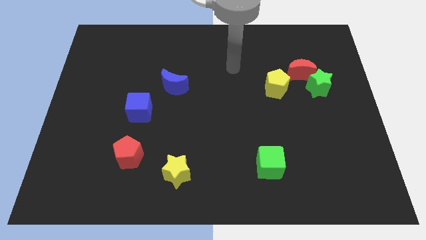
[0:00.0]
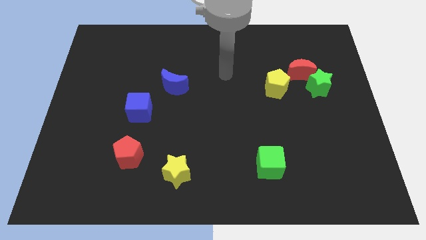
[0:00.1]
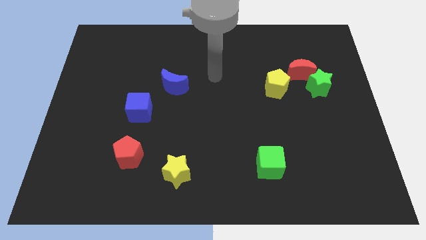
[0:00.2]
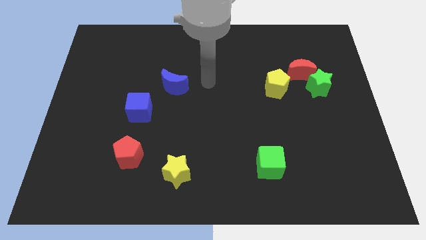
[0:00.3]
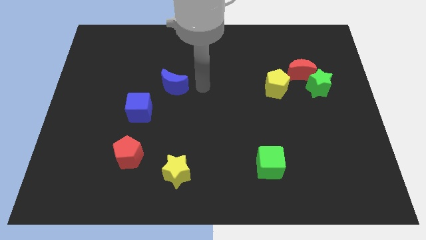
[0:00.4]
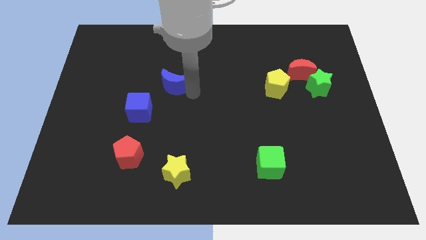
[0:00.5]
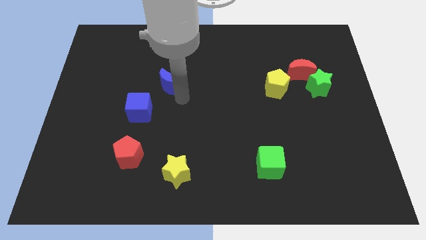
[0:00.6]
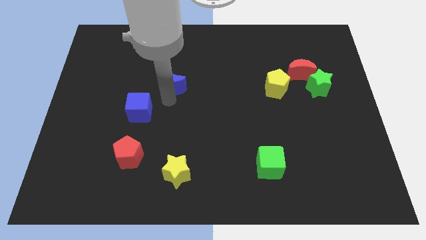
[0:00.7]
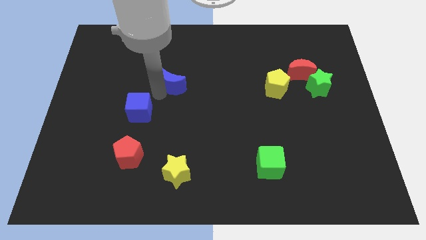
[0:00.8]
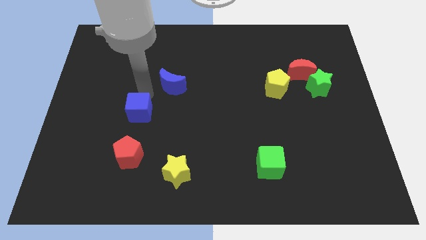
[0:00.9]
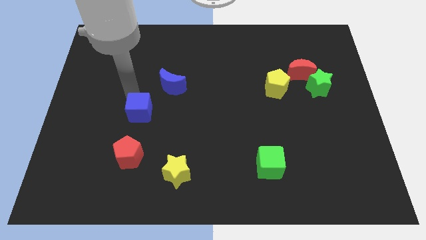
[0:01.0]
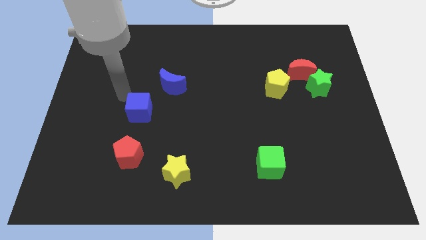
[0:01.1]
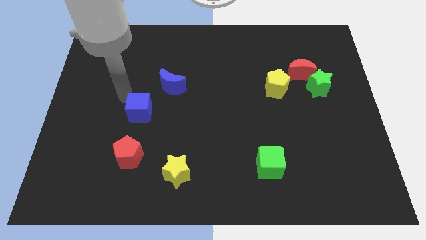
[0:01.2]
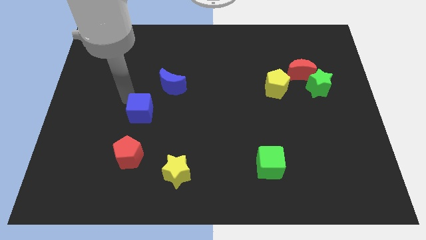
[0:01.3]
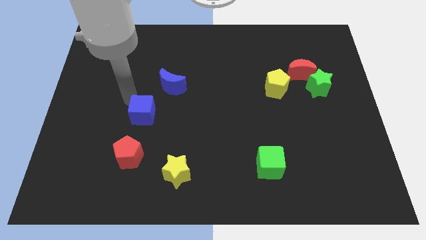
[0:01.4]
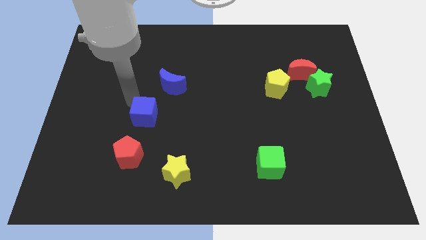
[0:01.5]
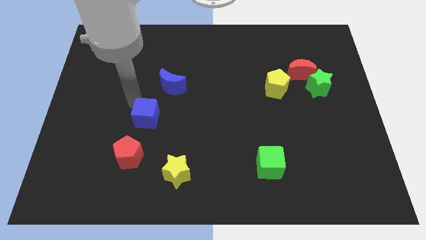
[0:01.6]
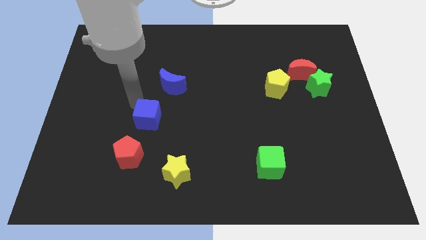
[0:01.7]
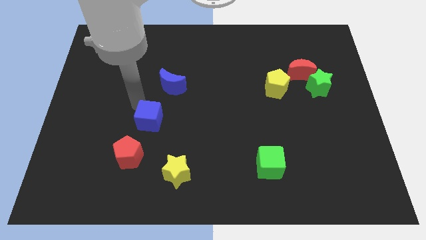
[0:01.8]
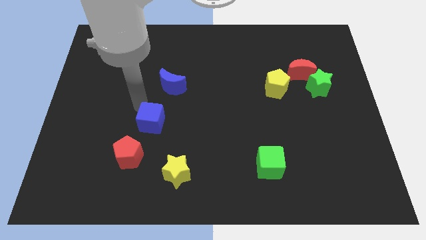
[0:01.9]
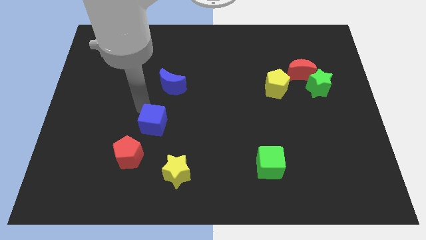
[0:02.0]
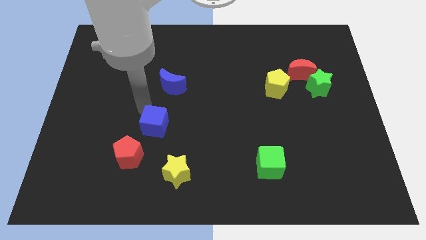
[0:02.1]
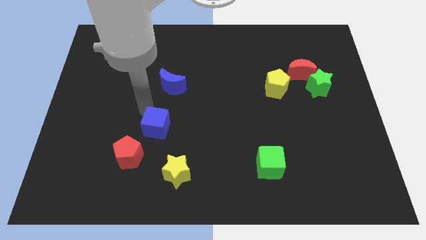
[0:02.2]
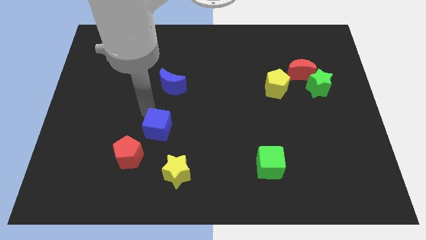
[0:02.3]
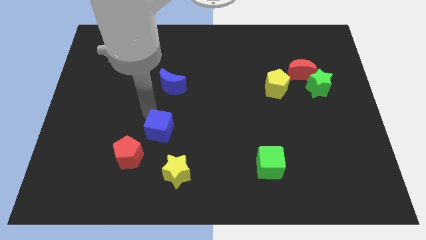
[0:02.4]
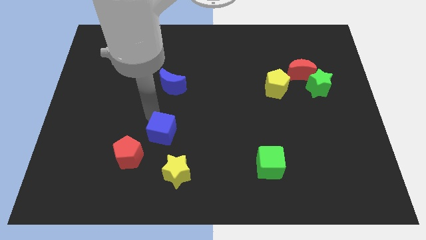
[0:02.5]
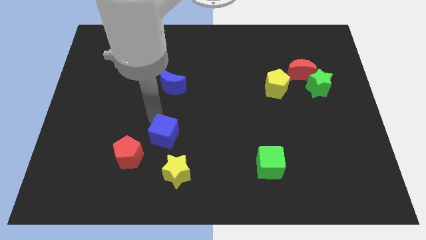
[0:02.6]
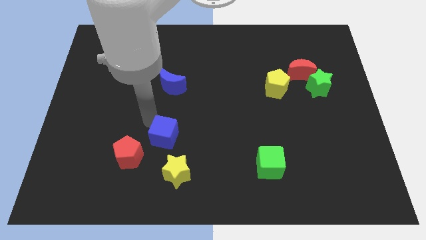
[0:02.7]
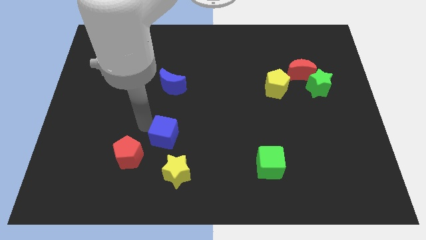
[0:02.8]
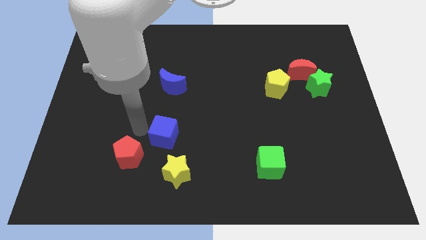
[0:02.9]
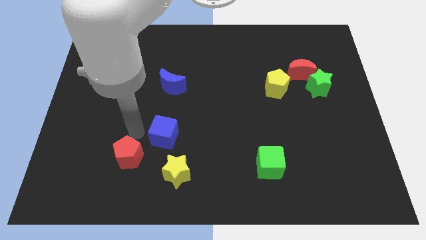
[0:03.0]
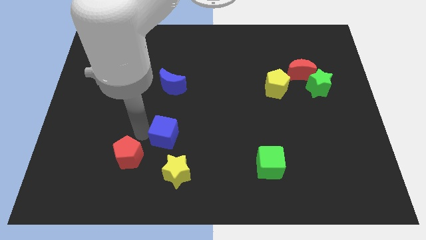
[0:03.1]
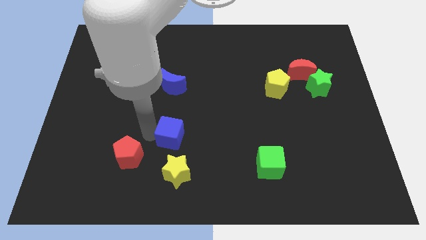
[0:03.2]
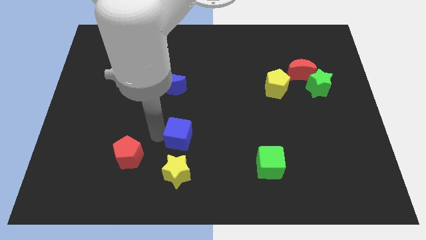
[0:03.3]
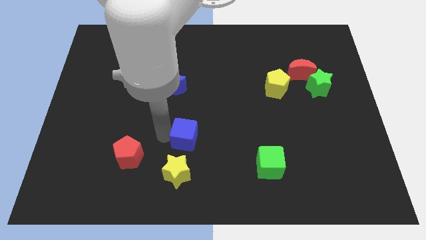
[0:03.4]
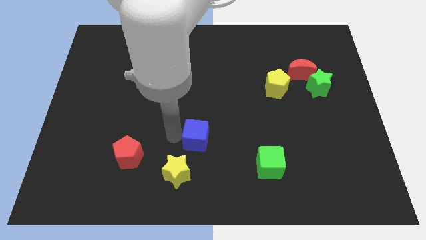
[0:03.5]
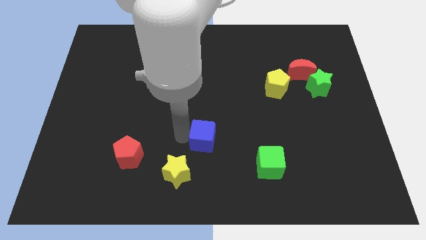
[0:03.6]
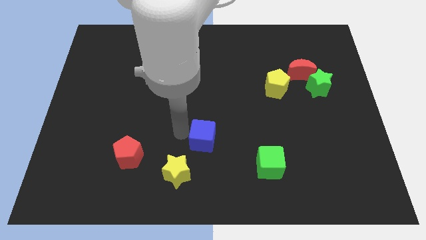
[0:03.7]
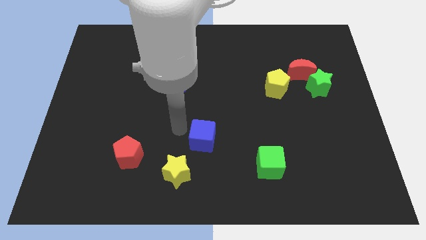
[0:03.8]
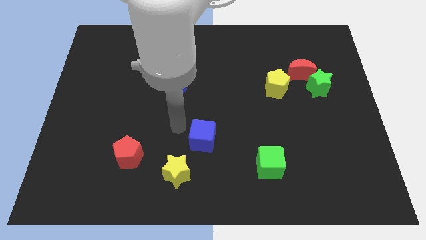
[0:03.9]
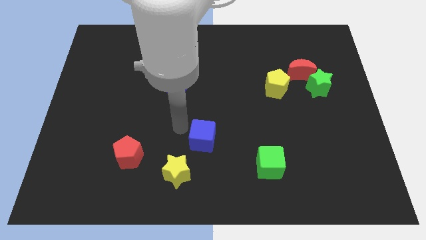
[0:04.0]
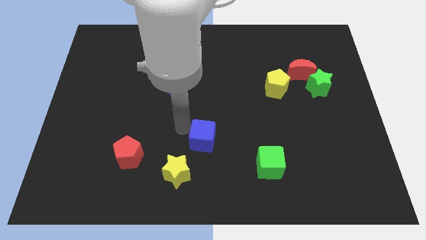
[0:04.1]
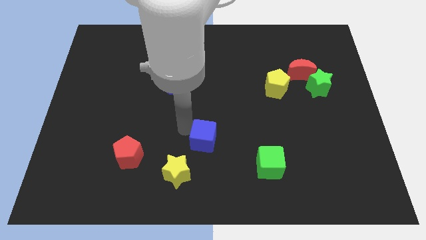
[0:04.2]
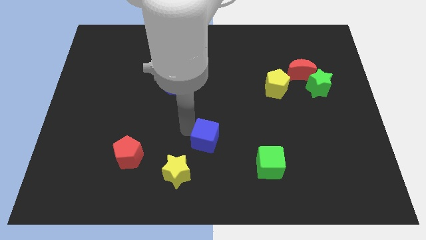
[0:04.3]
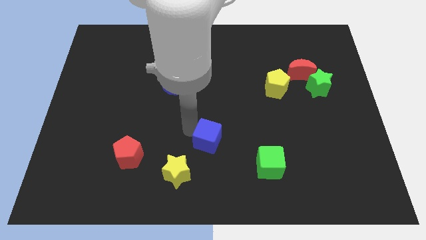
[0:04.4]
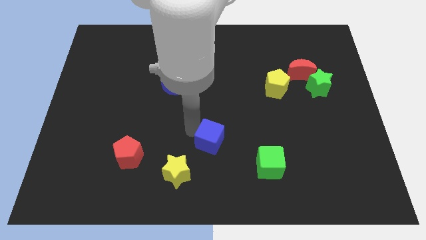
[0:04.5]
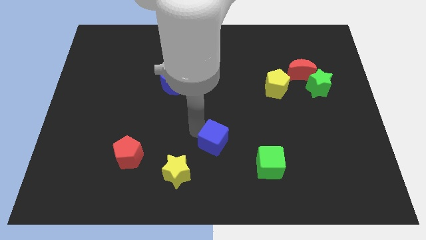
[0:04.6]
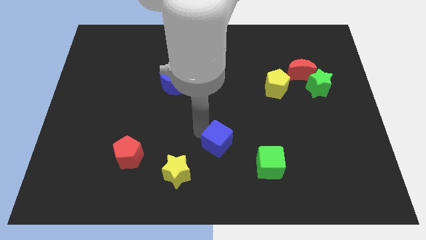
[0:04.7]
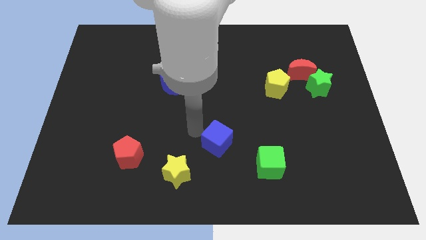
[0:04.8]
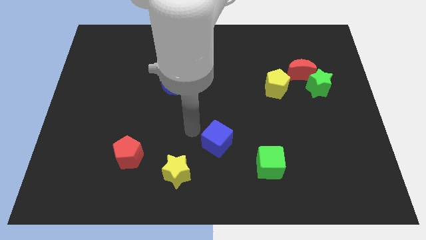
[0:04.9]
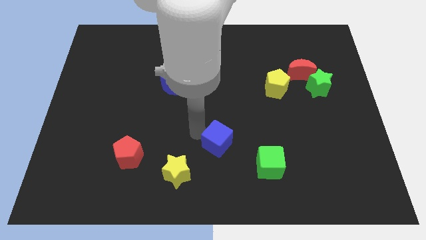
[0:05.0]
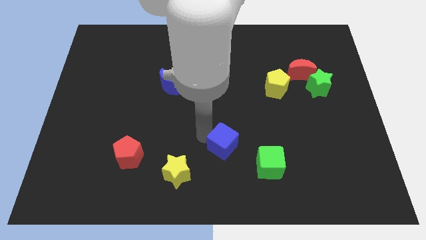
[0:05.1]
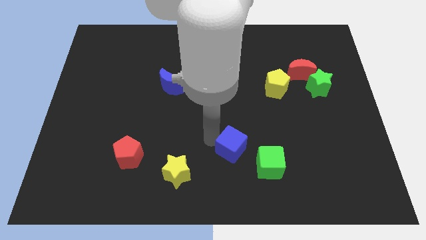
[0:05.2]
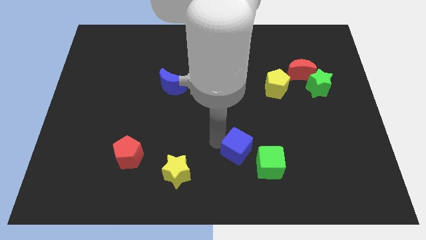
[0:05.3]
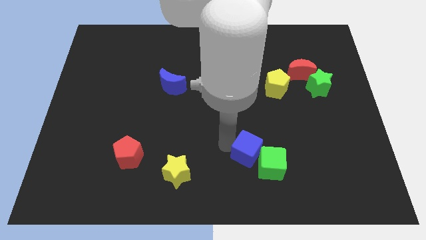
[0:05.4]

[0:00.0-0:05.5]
move the blue cube towards the green cube

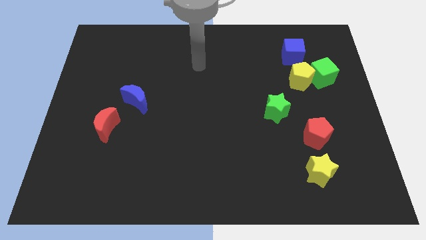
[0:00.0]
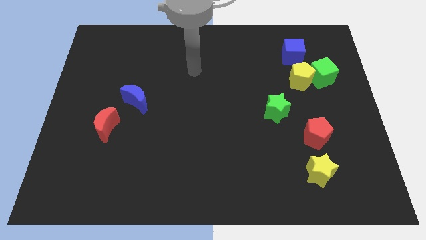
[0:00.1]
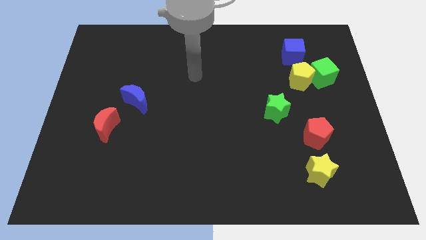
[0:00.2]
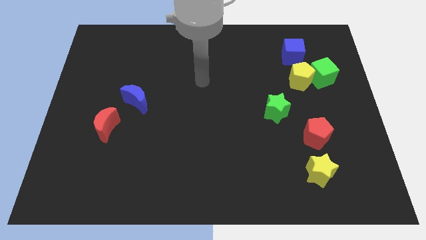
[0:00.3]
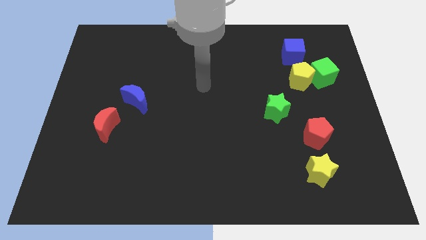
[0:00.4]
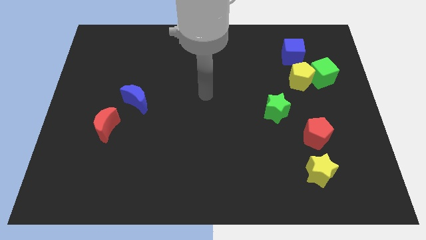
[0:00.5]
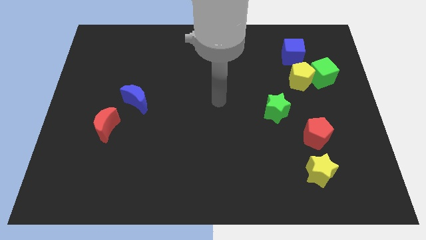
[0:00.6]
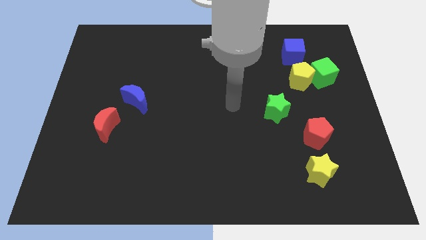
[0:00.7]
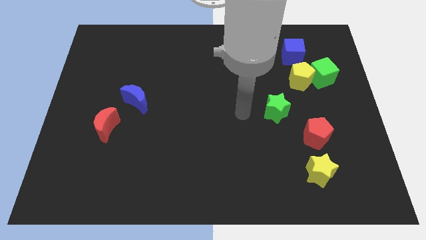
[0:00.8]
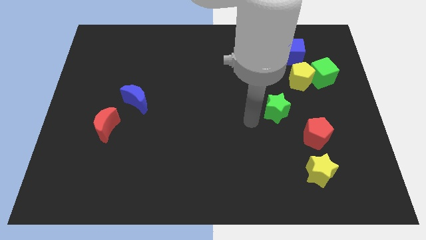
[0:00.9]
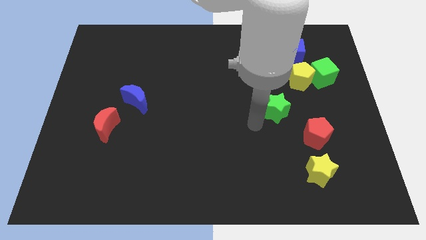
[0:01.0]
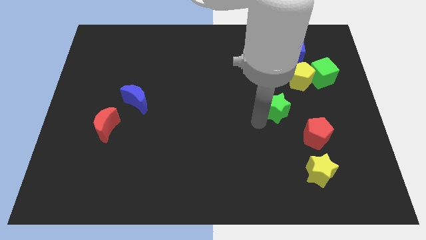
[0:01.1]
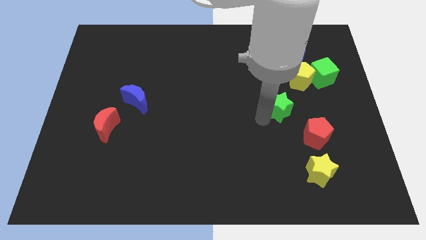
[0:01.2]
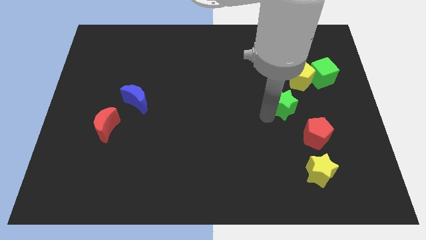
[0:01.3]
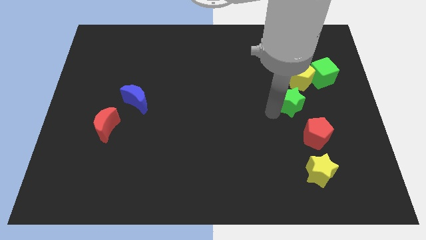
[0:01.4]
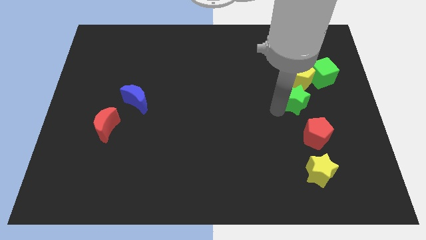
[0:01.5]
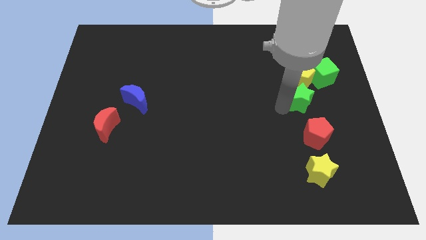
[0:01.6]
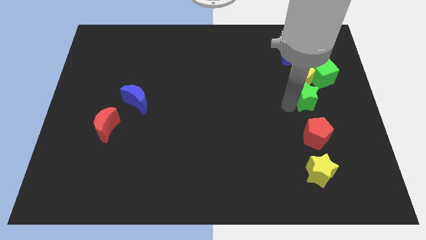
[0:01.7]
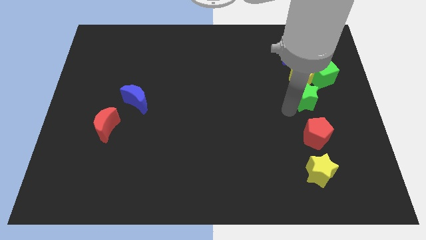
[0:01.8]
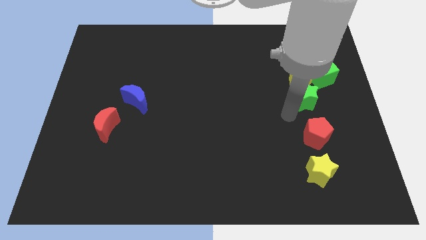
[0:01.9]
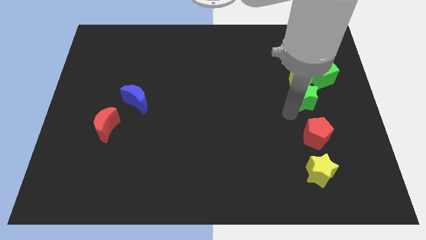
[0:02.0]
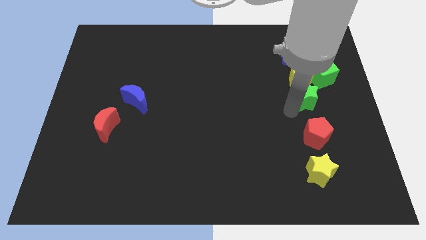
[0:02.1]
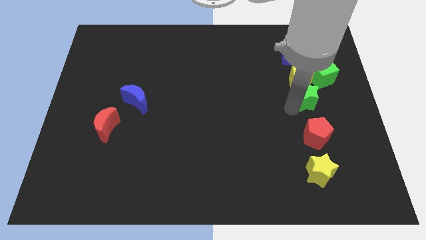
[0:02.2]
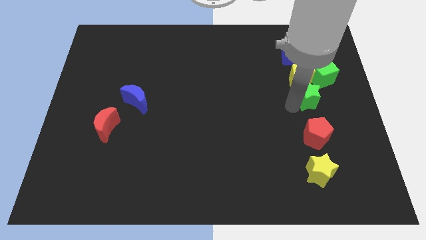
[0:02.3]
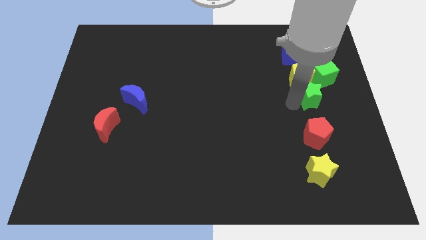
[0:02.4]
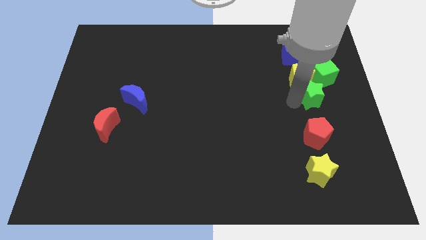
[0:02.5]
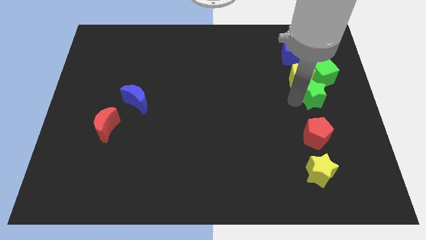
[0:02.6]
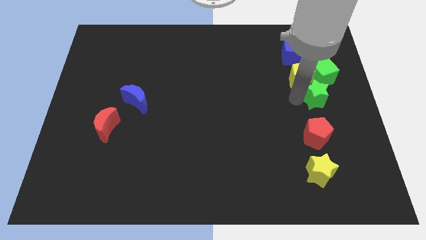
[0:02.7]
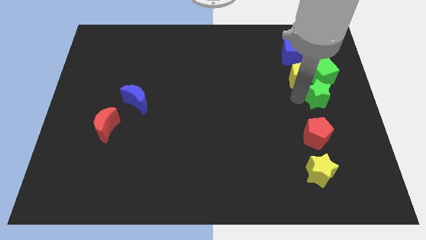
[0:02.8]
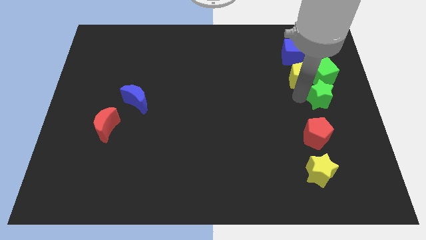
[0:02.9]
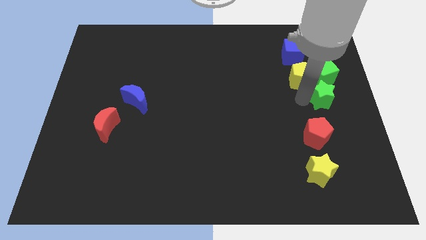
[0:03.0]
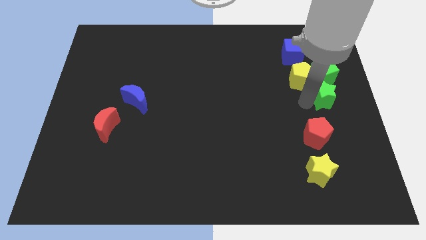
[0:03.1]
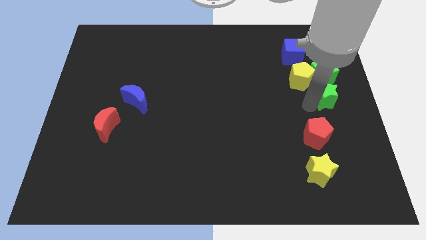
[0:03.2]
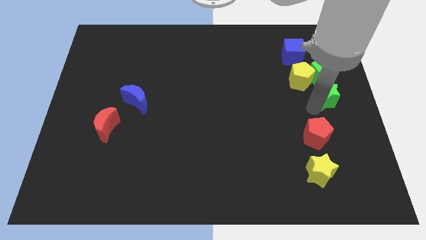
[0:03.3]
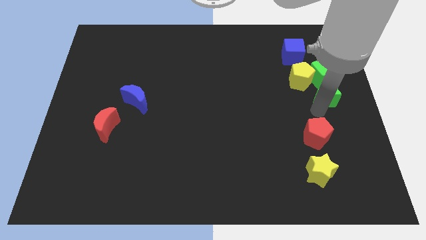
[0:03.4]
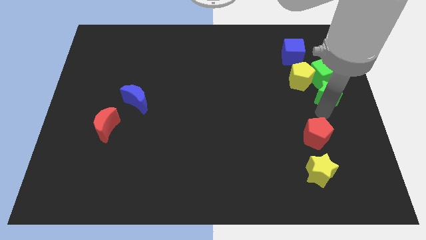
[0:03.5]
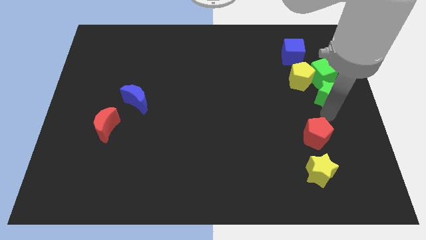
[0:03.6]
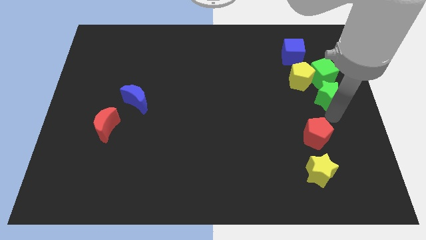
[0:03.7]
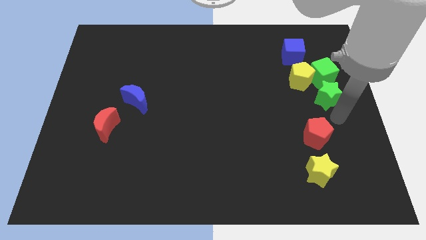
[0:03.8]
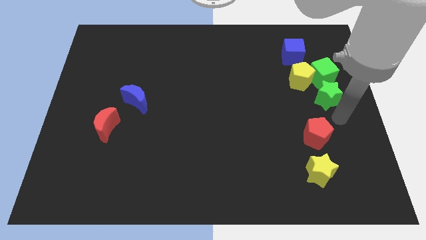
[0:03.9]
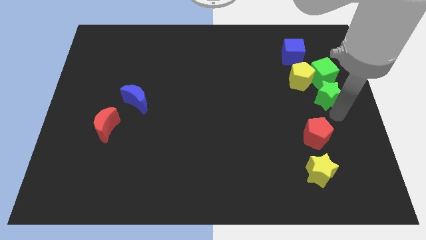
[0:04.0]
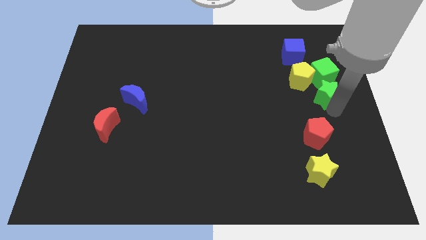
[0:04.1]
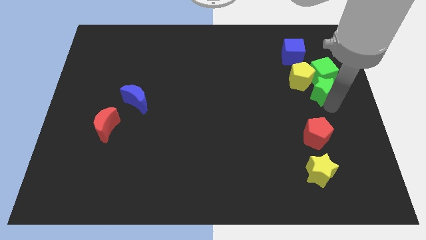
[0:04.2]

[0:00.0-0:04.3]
slide the green star next to the green cube
